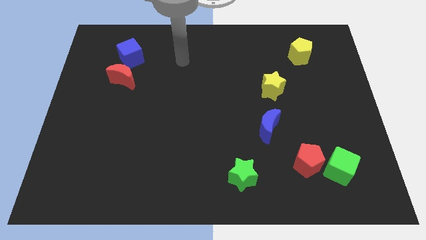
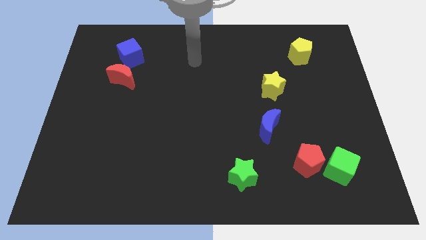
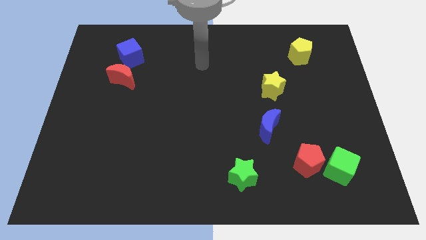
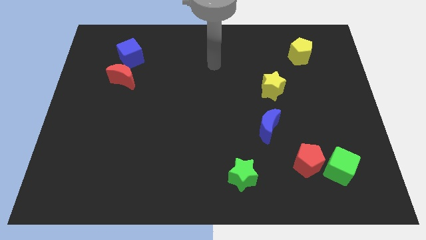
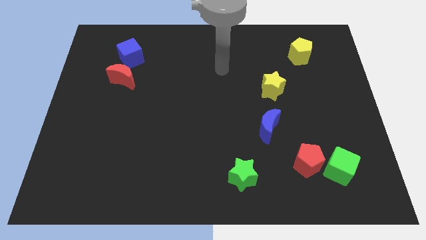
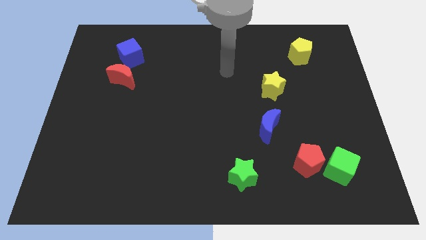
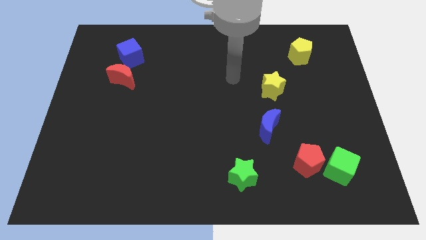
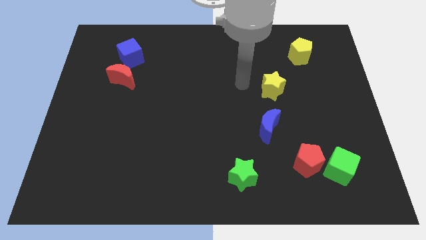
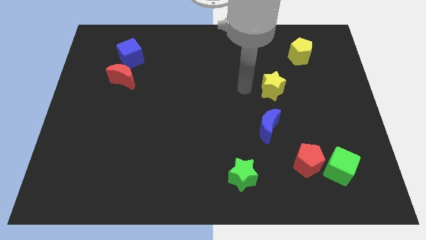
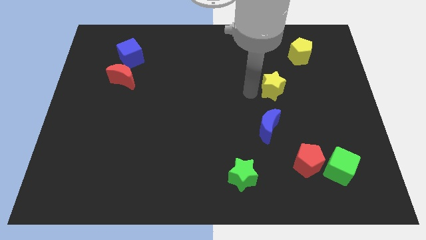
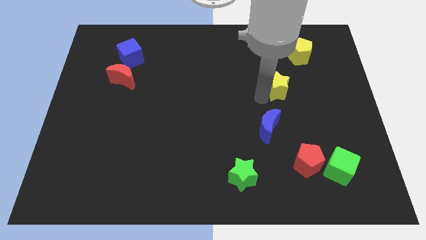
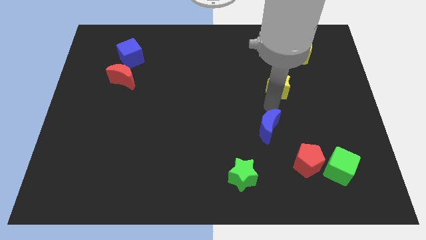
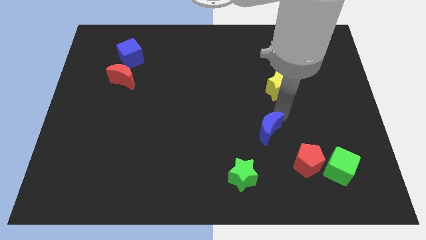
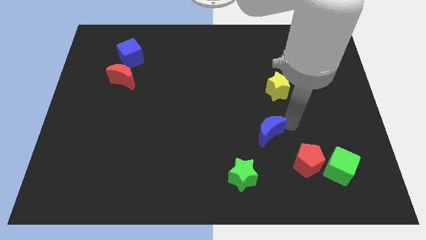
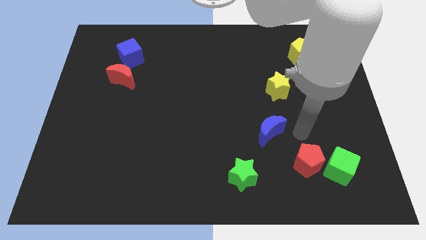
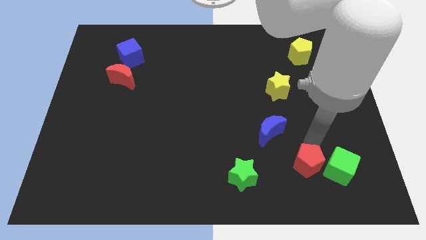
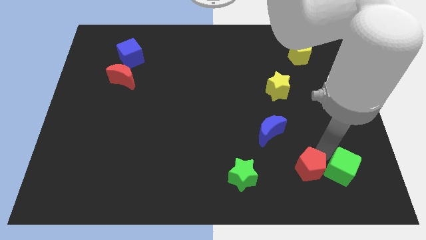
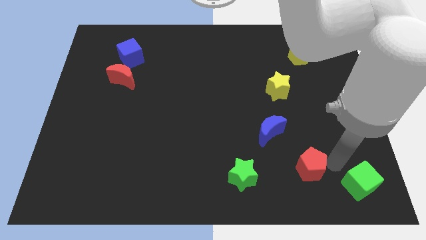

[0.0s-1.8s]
pull the red pentagon apart from the green cube

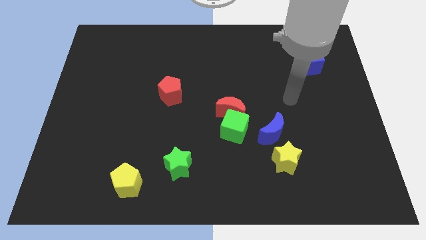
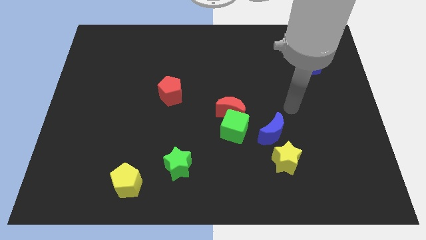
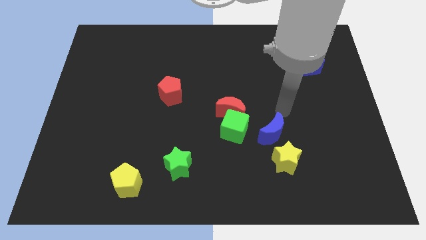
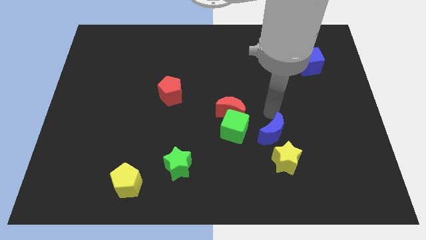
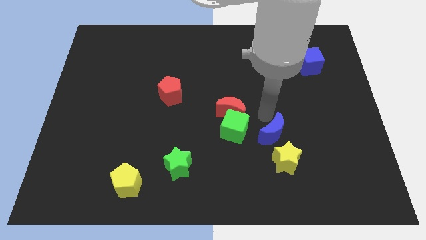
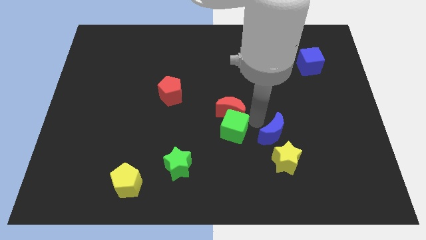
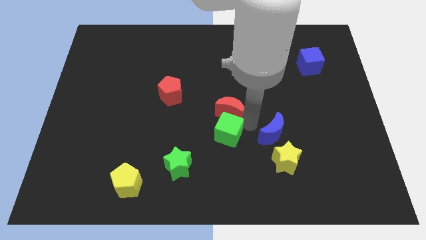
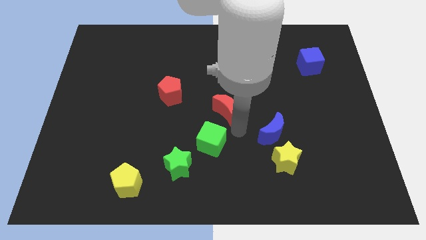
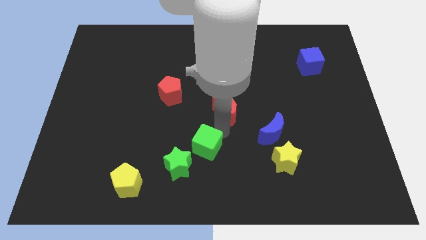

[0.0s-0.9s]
pull the red moon apart from the green cube

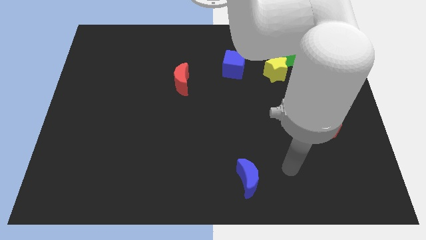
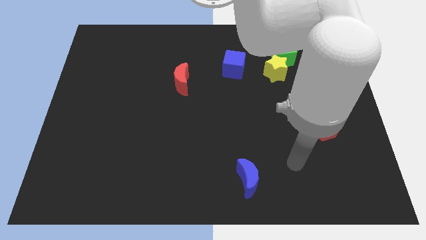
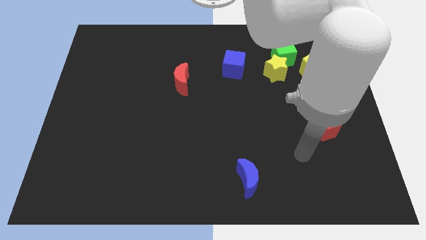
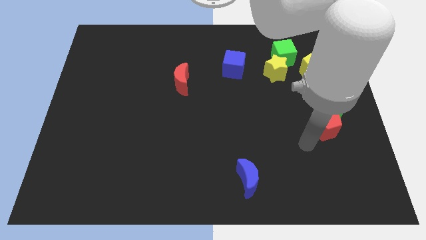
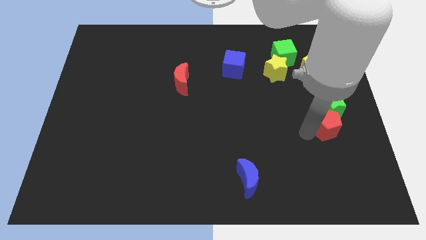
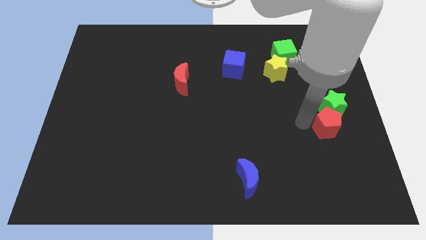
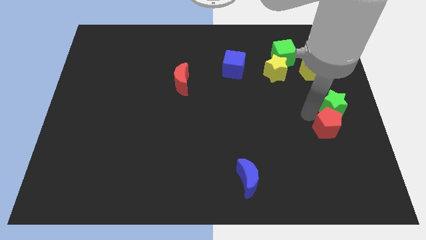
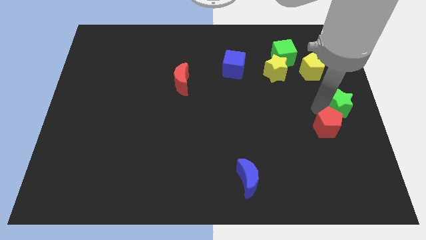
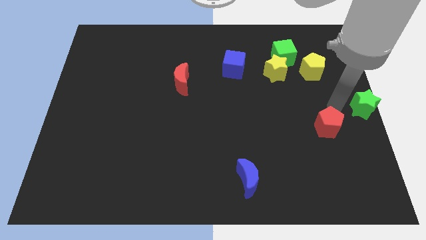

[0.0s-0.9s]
move the red pentagon away from the green star

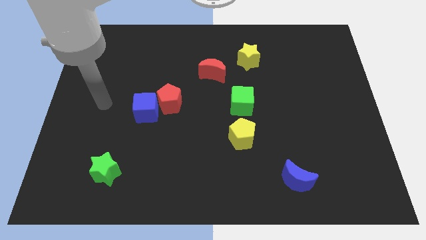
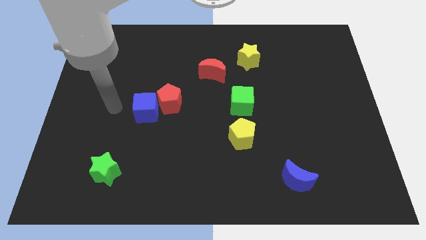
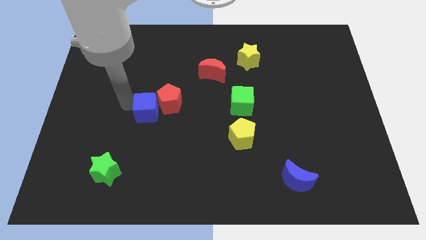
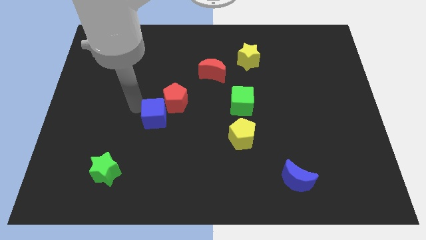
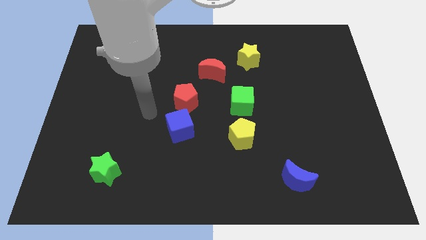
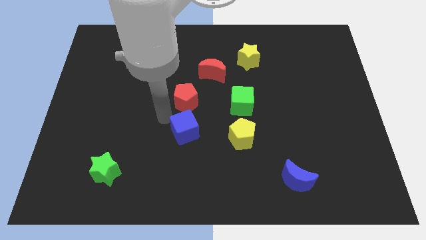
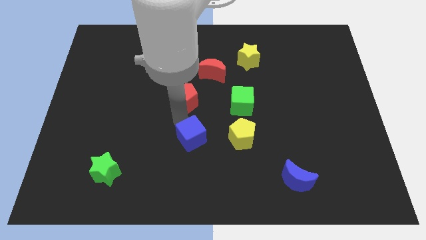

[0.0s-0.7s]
pull the red pentagon apart from the blue cube

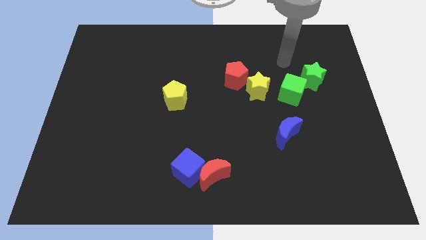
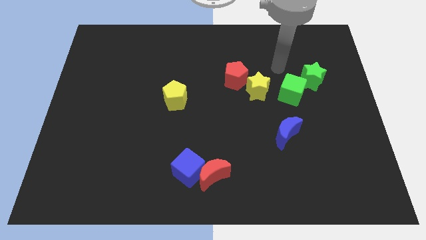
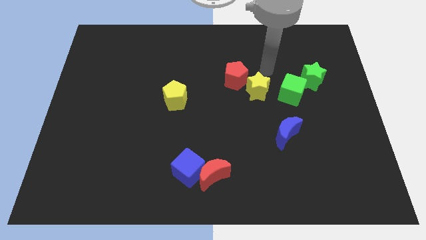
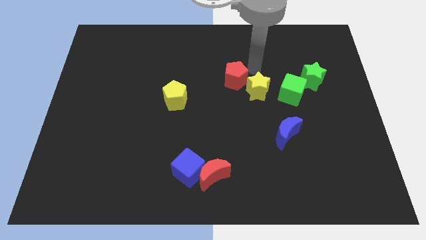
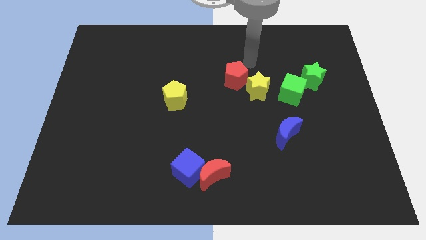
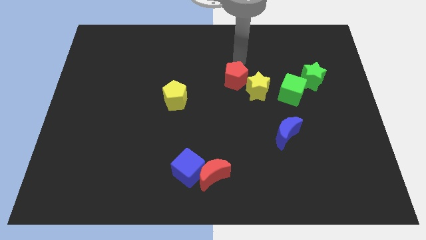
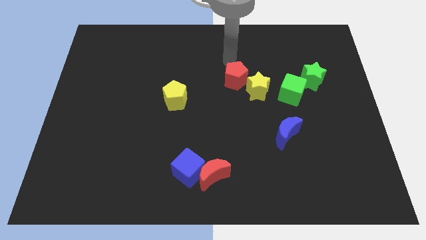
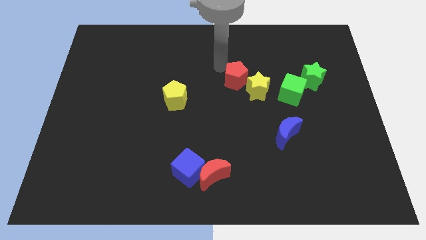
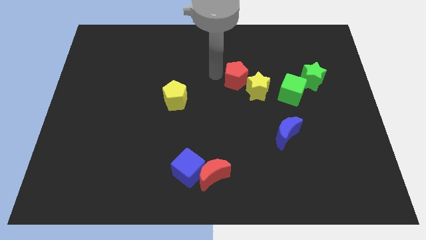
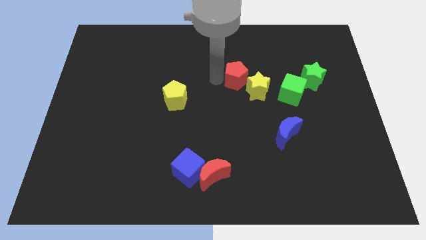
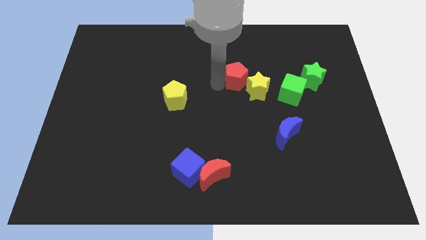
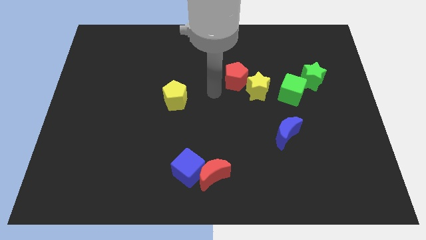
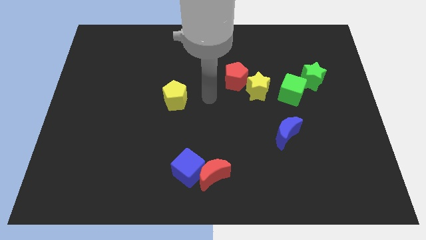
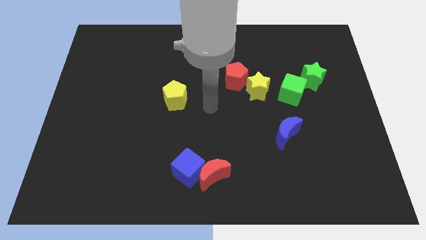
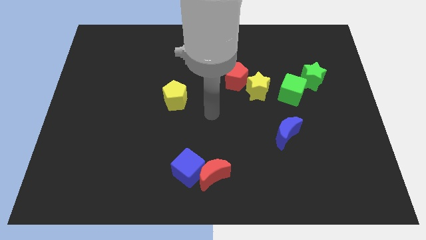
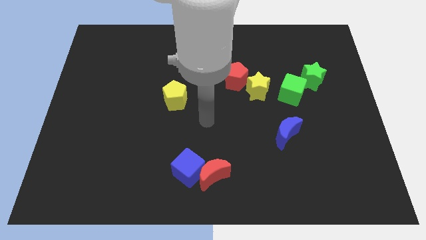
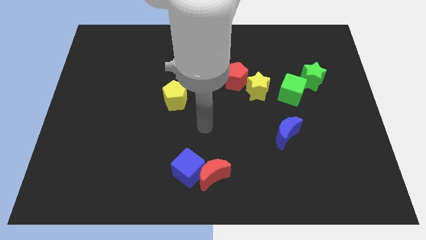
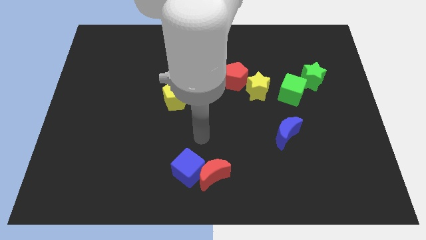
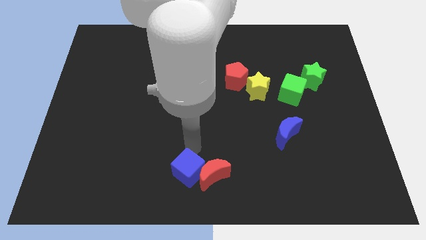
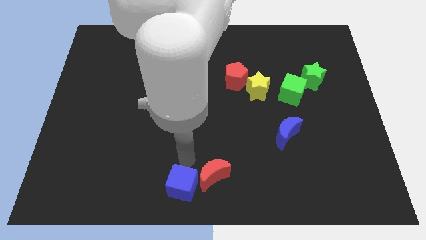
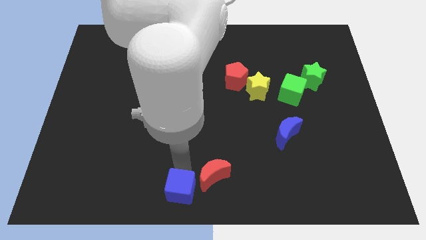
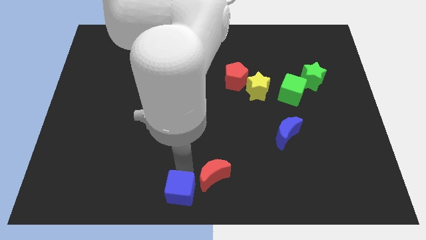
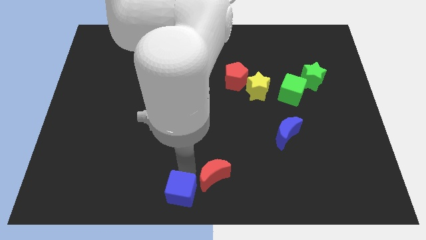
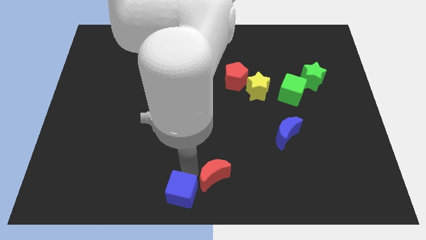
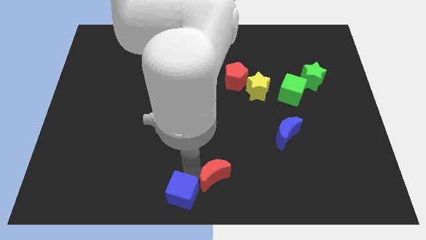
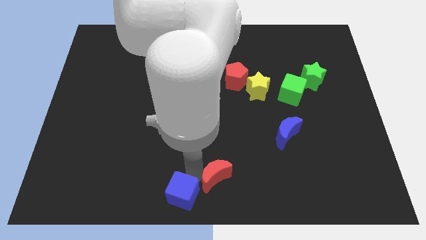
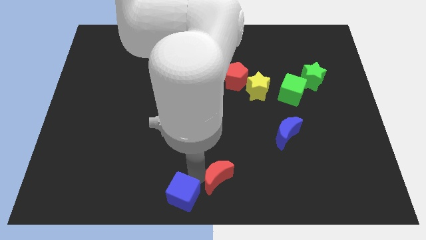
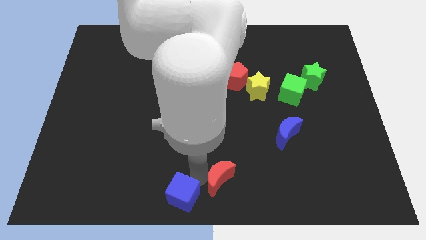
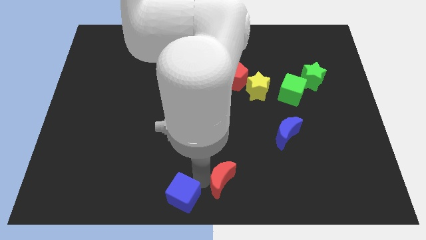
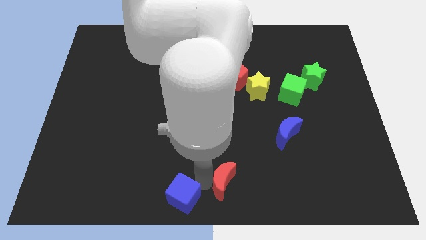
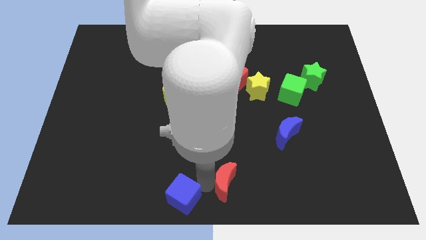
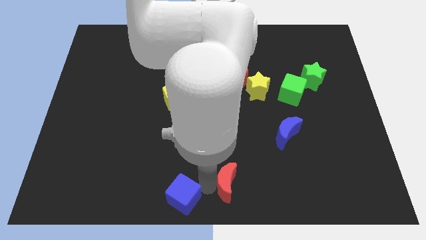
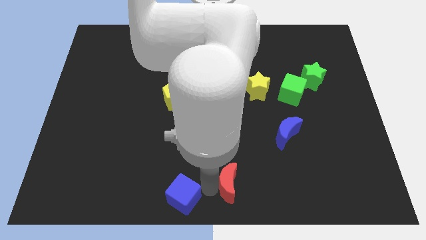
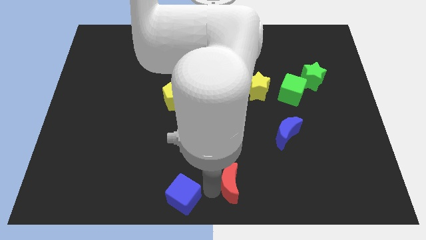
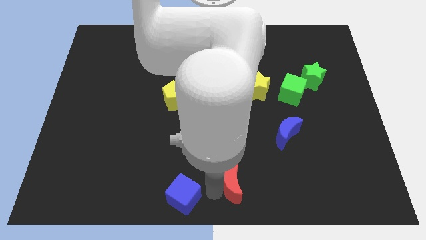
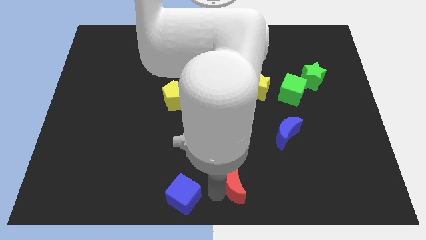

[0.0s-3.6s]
separate the red moon from the blue cube

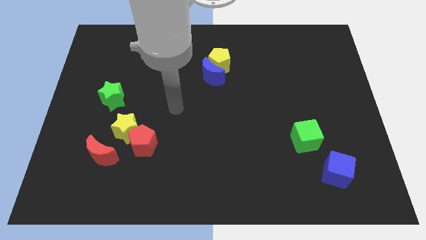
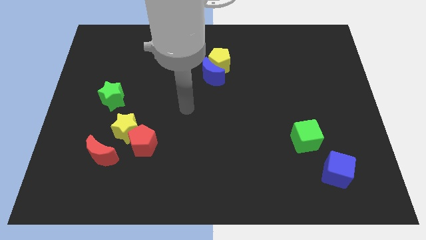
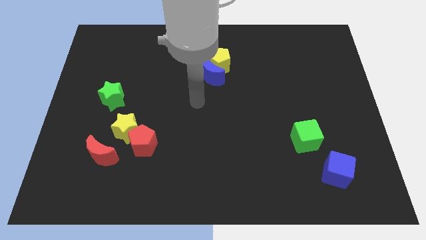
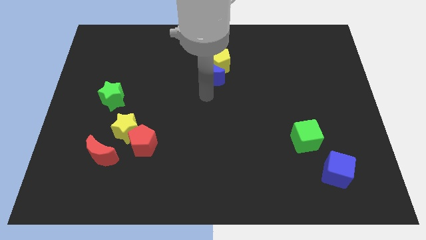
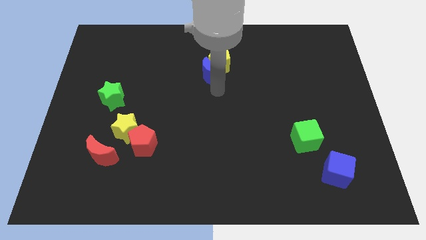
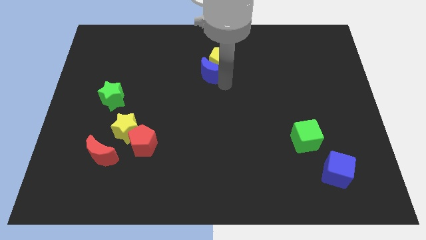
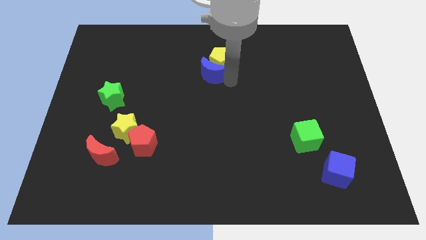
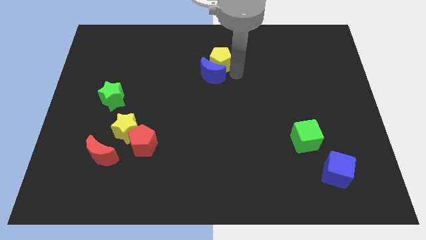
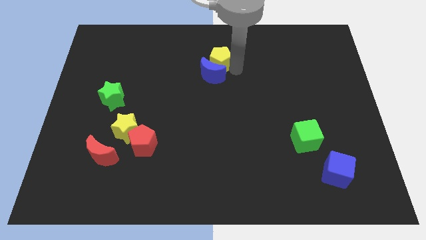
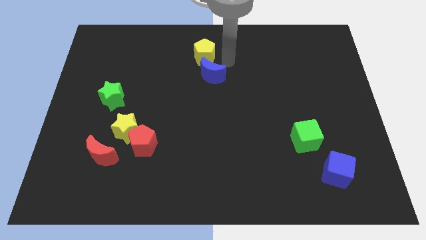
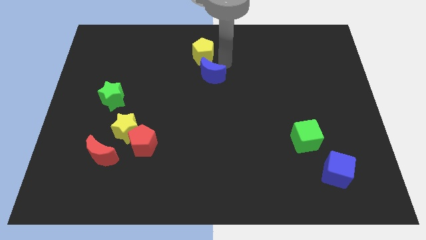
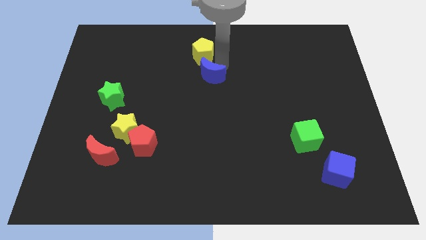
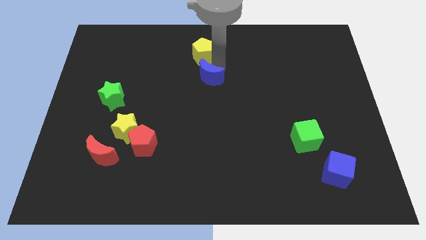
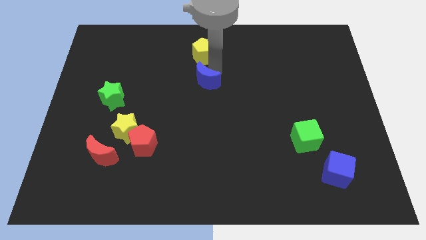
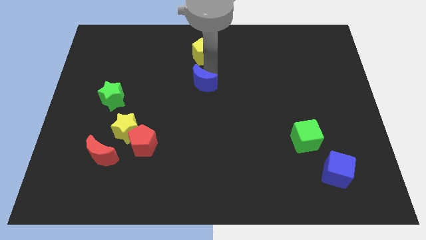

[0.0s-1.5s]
pull the blue moon apart from the yellow pentagon
